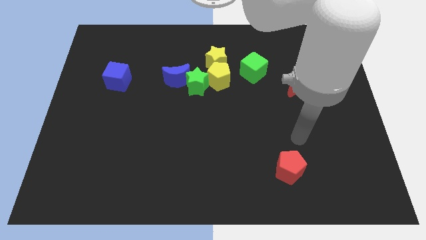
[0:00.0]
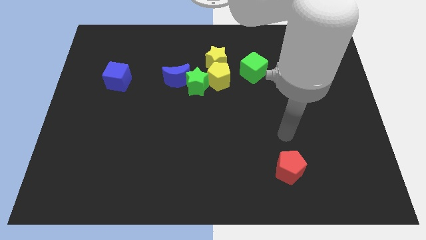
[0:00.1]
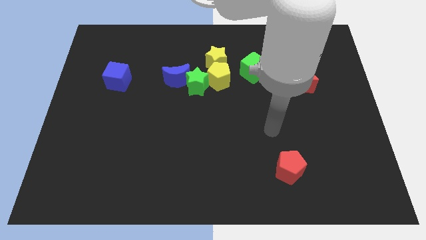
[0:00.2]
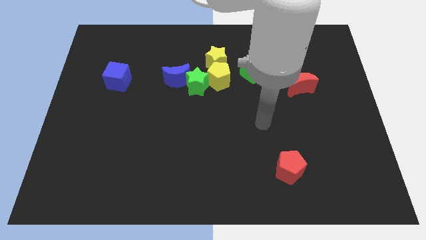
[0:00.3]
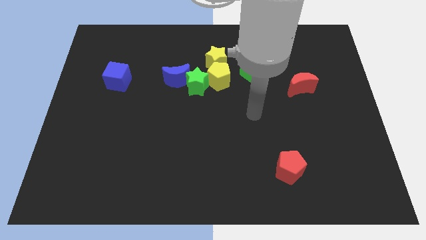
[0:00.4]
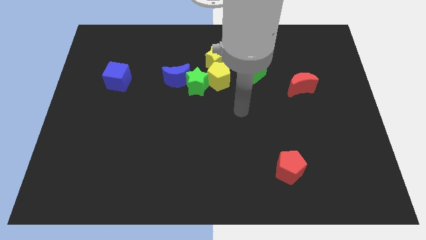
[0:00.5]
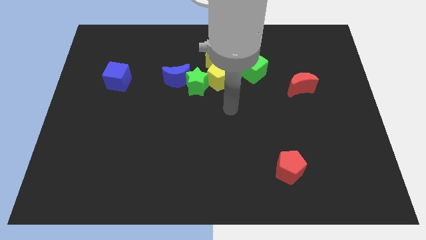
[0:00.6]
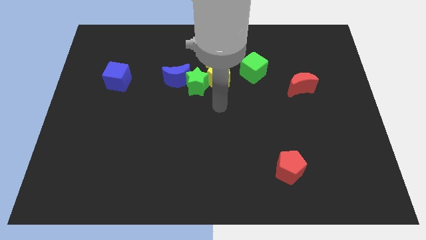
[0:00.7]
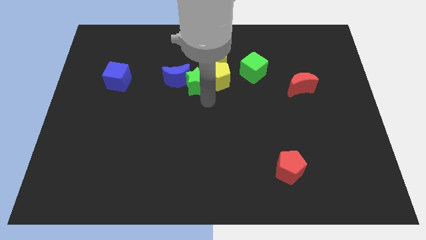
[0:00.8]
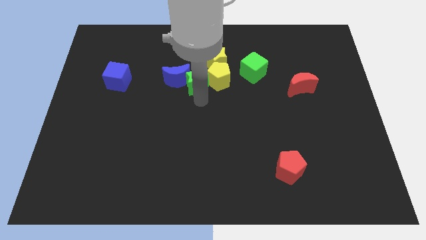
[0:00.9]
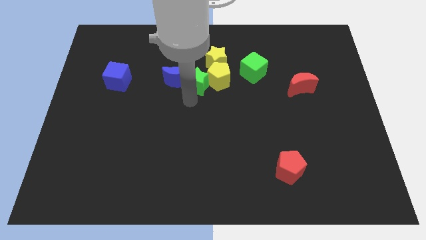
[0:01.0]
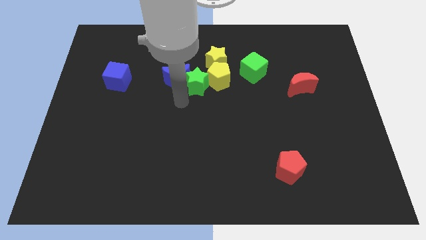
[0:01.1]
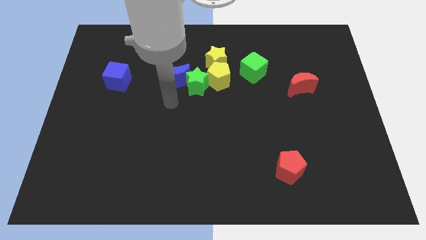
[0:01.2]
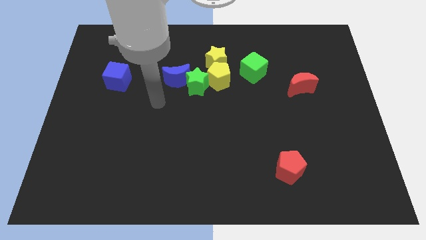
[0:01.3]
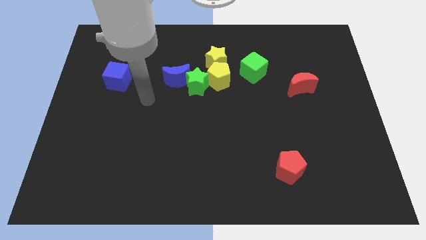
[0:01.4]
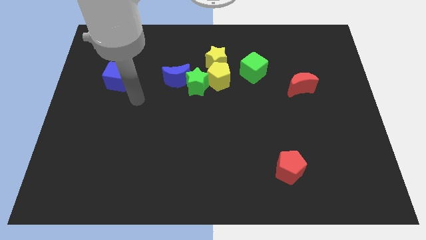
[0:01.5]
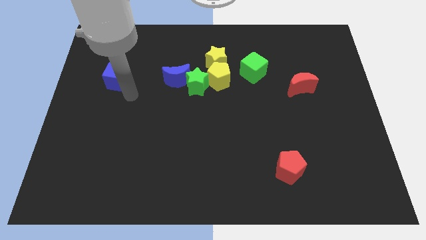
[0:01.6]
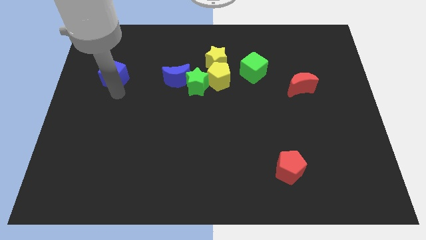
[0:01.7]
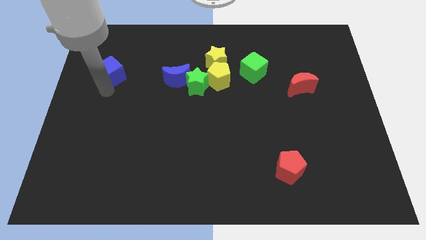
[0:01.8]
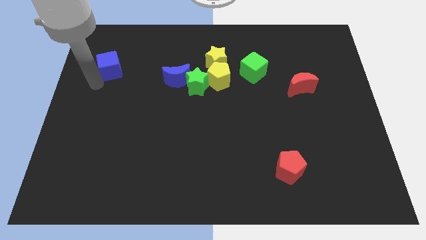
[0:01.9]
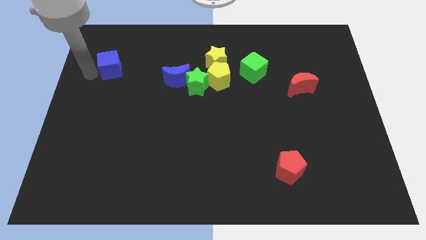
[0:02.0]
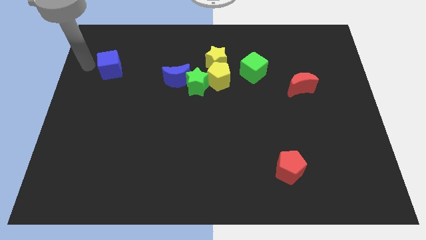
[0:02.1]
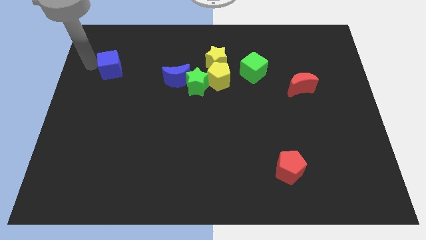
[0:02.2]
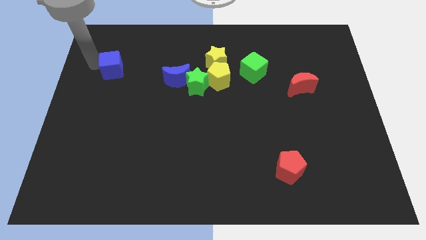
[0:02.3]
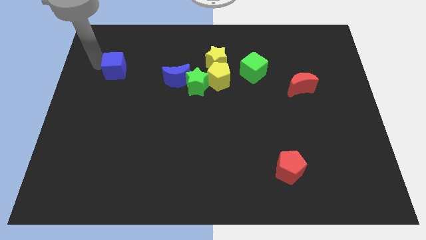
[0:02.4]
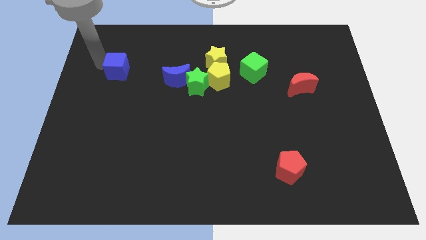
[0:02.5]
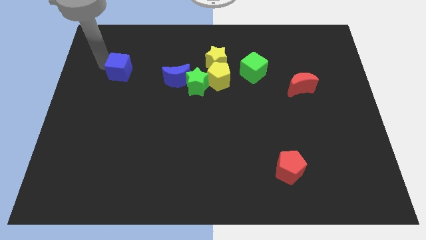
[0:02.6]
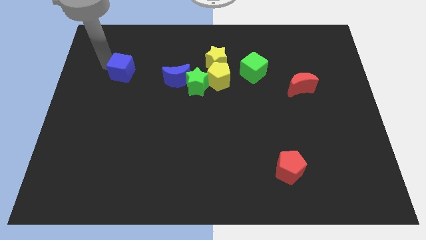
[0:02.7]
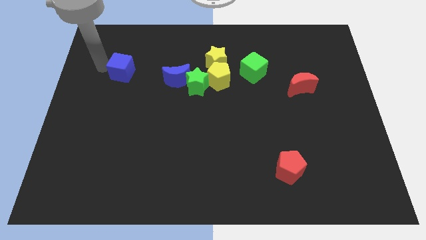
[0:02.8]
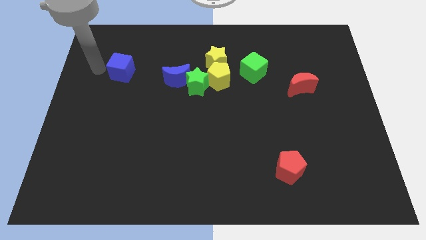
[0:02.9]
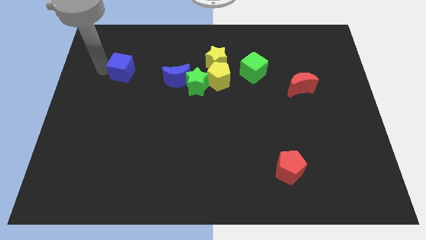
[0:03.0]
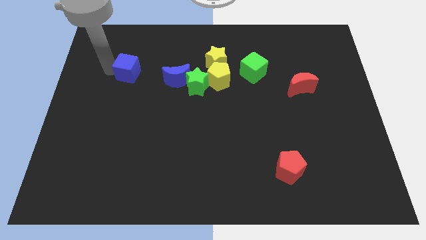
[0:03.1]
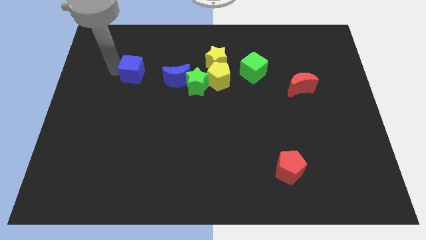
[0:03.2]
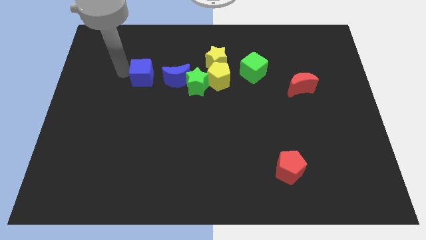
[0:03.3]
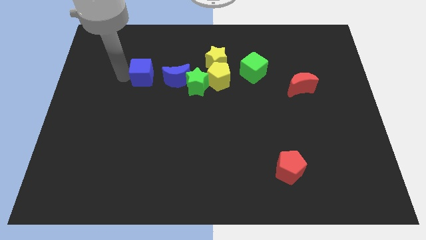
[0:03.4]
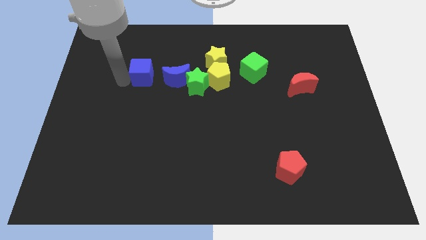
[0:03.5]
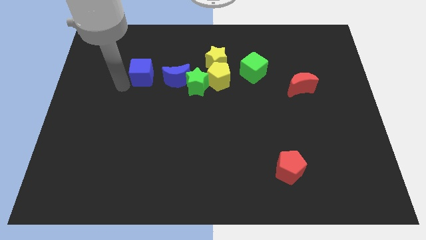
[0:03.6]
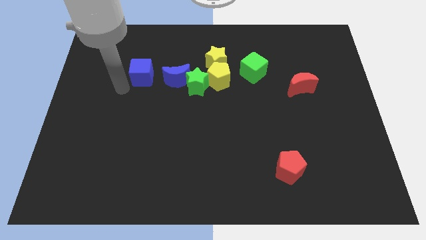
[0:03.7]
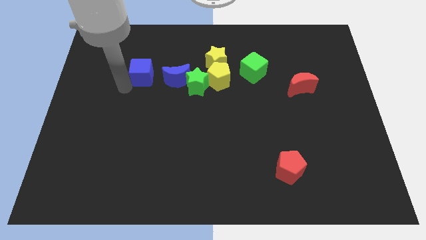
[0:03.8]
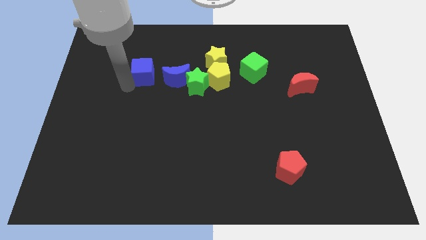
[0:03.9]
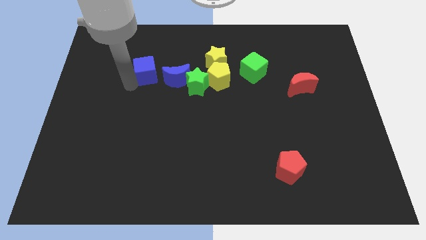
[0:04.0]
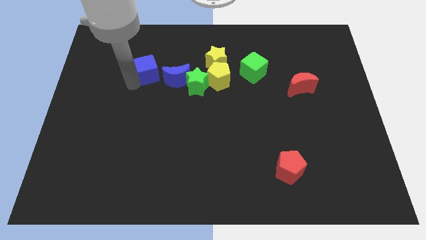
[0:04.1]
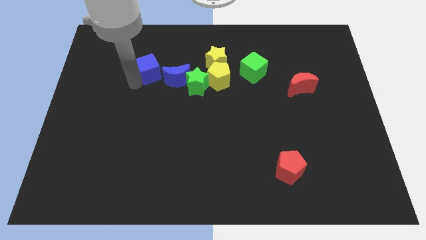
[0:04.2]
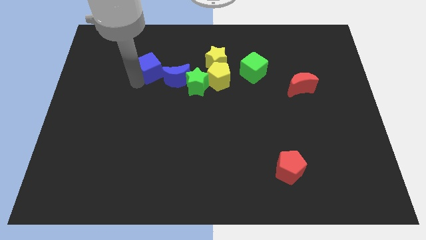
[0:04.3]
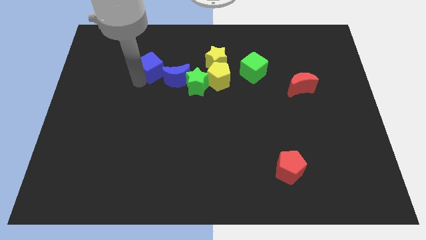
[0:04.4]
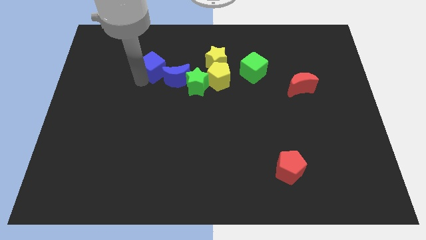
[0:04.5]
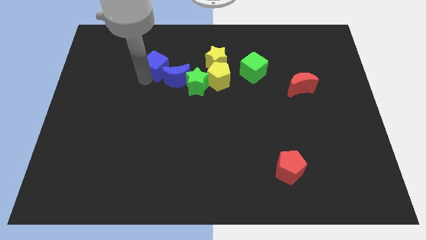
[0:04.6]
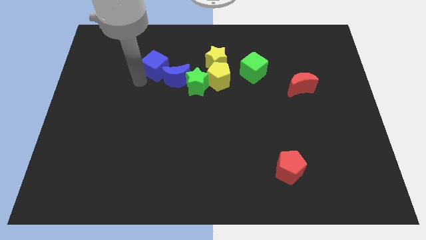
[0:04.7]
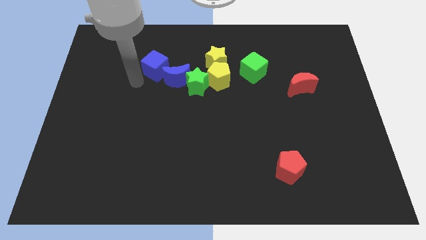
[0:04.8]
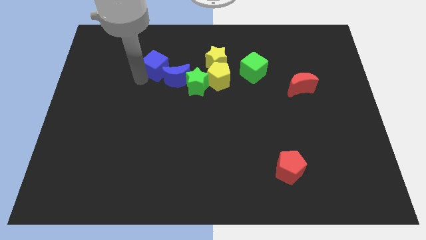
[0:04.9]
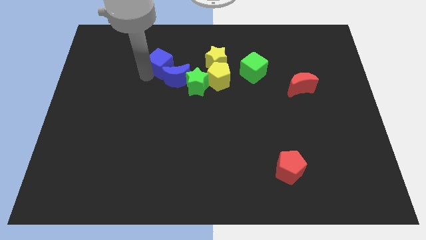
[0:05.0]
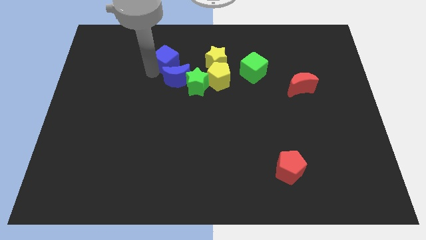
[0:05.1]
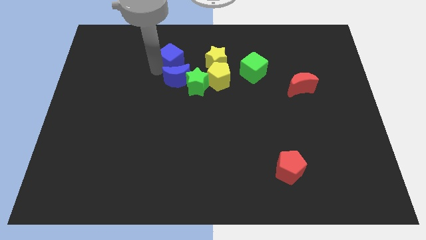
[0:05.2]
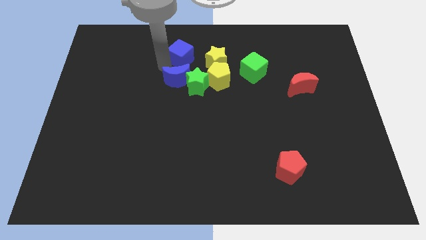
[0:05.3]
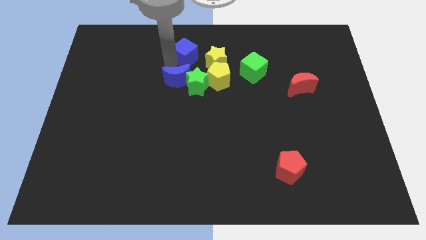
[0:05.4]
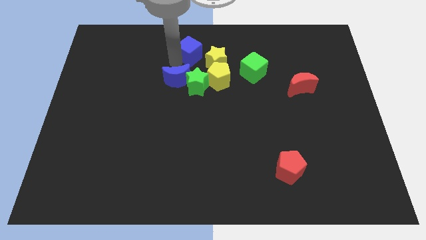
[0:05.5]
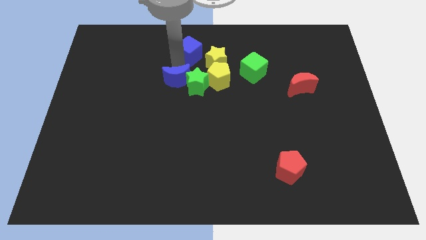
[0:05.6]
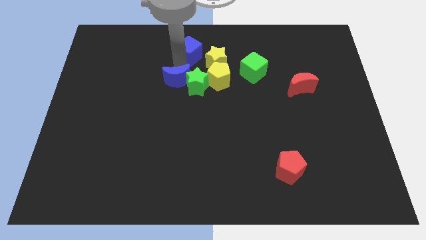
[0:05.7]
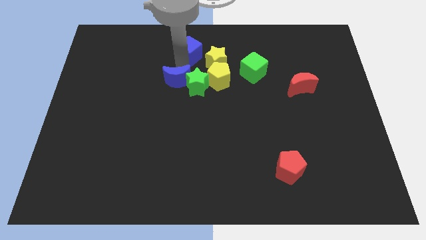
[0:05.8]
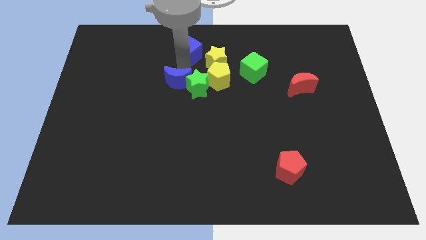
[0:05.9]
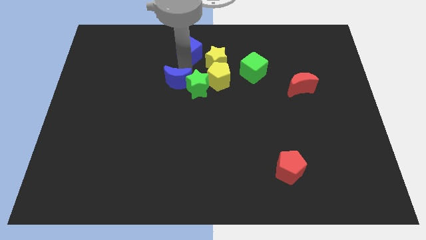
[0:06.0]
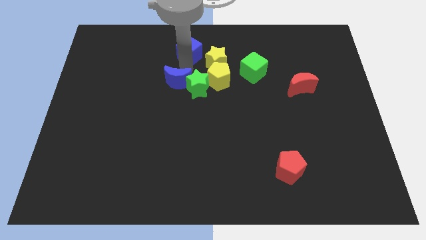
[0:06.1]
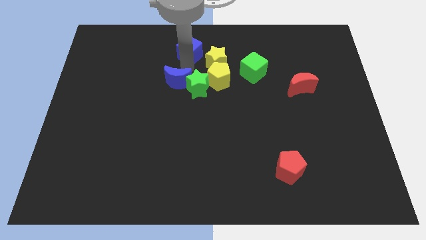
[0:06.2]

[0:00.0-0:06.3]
push the blue cube to the top side

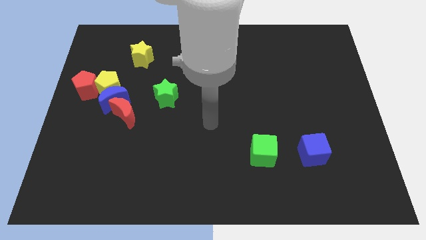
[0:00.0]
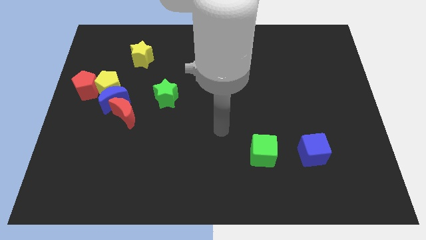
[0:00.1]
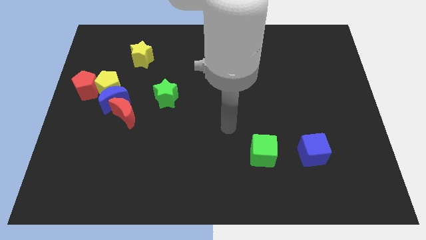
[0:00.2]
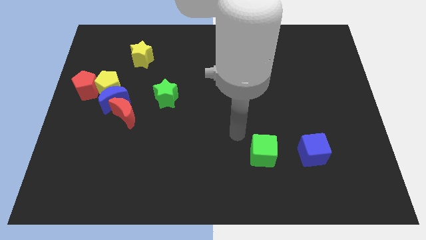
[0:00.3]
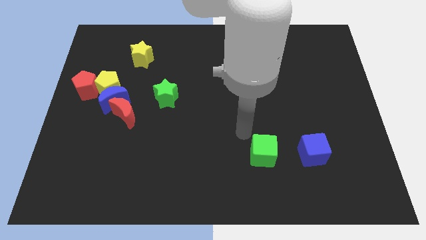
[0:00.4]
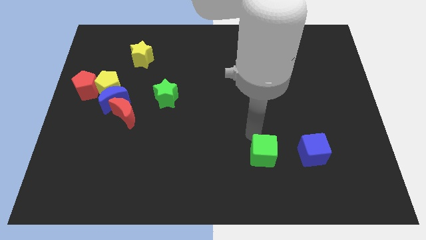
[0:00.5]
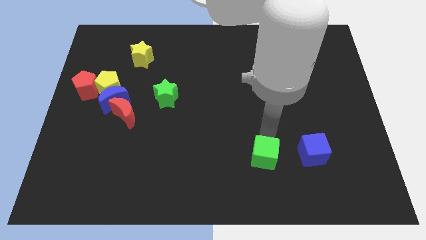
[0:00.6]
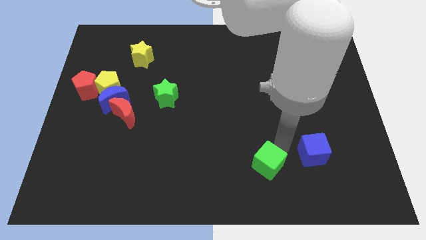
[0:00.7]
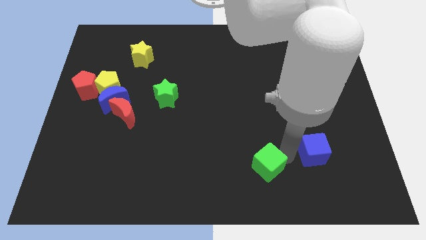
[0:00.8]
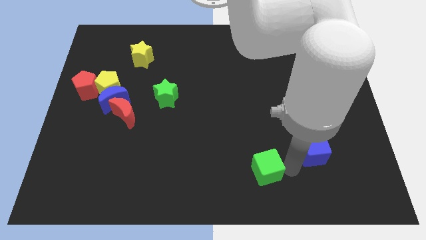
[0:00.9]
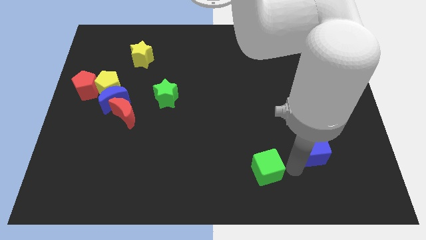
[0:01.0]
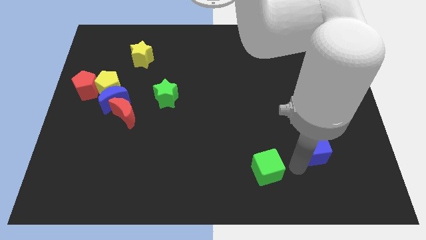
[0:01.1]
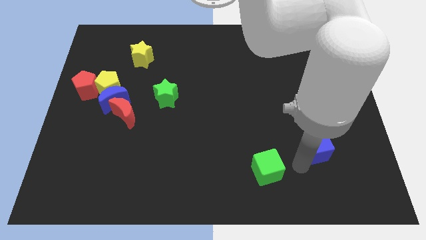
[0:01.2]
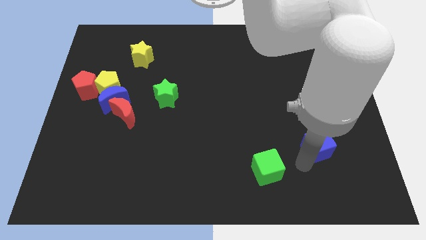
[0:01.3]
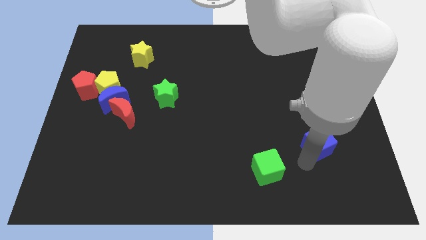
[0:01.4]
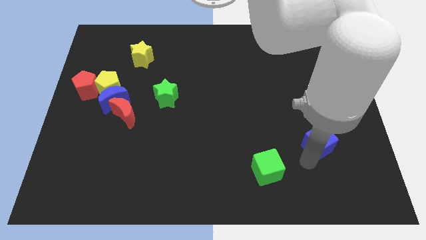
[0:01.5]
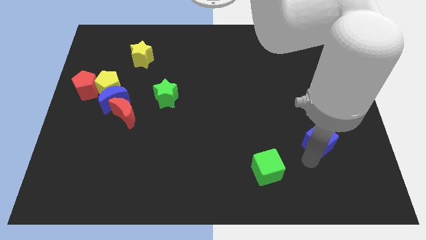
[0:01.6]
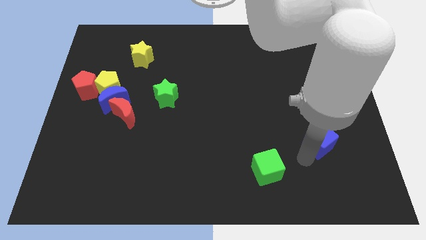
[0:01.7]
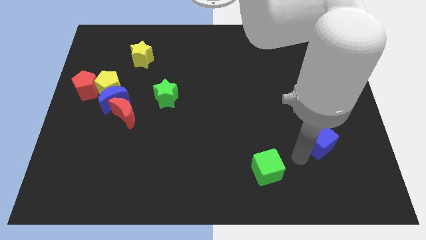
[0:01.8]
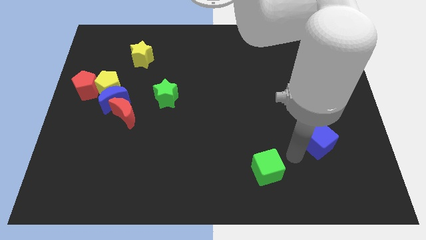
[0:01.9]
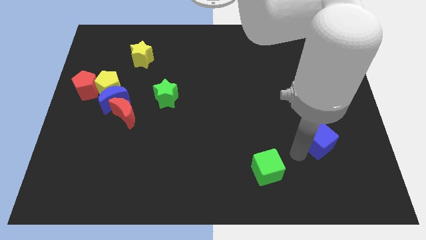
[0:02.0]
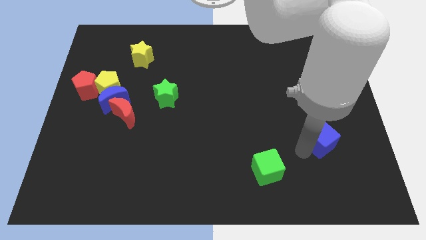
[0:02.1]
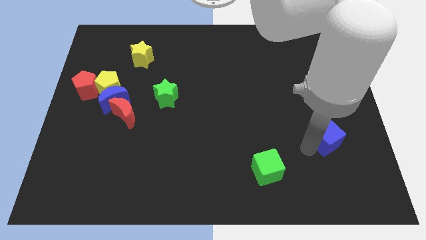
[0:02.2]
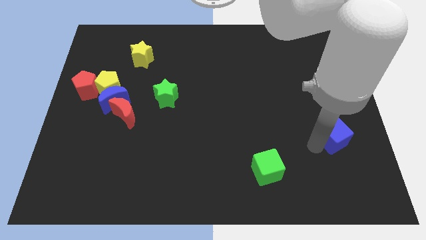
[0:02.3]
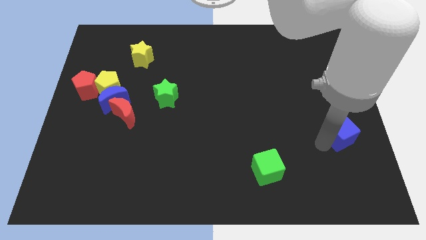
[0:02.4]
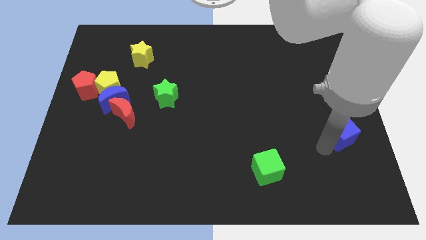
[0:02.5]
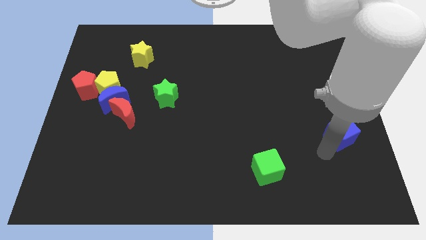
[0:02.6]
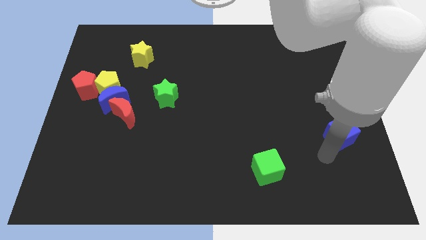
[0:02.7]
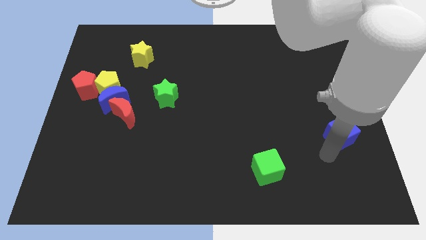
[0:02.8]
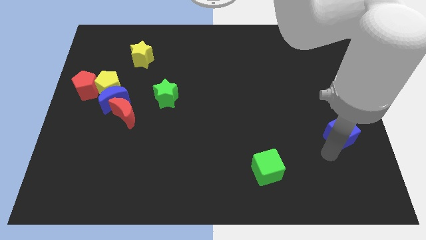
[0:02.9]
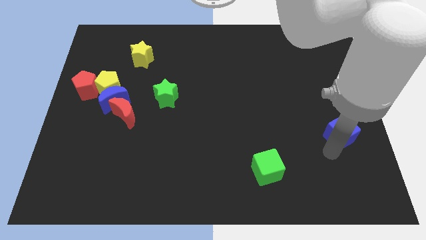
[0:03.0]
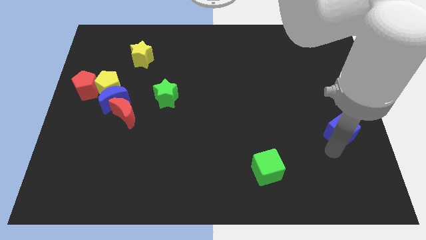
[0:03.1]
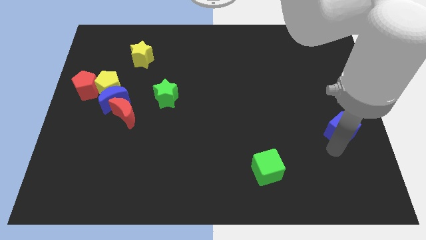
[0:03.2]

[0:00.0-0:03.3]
move the blue cube to the center right
